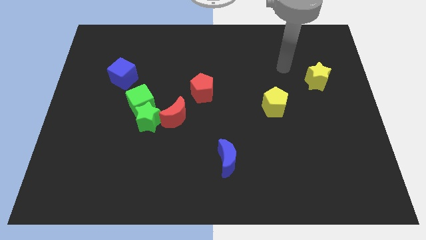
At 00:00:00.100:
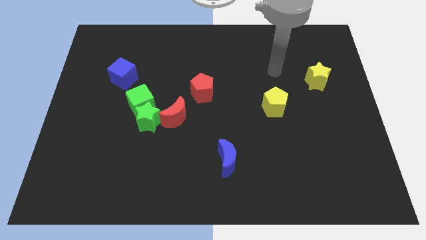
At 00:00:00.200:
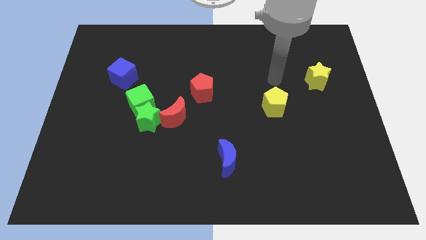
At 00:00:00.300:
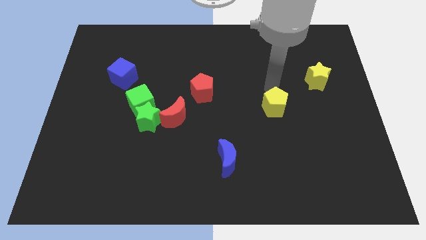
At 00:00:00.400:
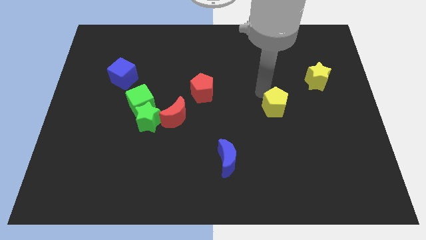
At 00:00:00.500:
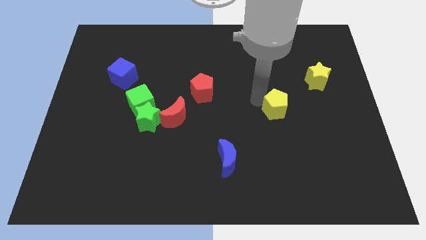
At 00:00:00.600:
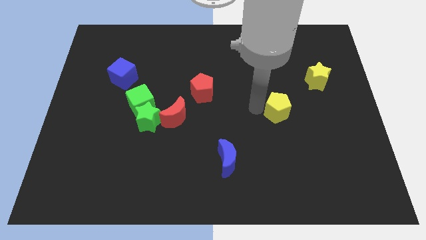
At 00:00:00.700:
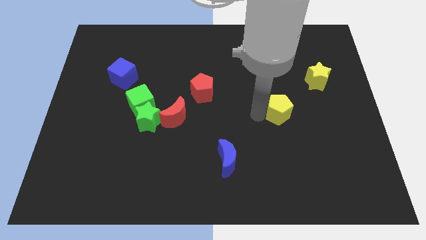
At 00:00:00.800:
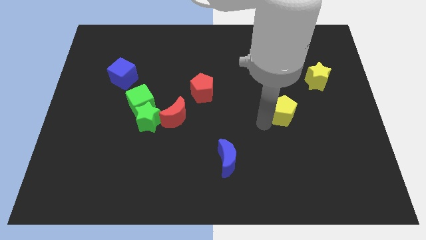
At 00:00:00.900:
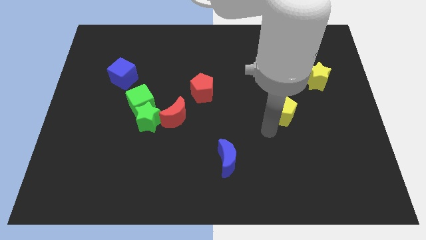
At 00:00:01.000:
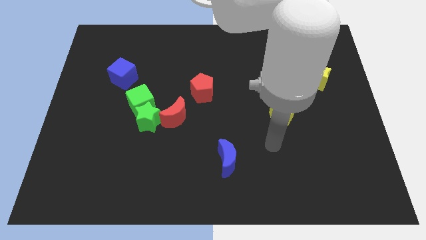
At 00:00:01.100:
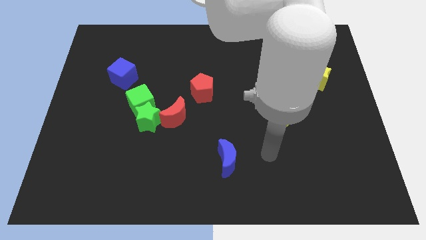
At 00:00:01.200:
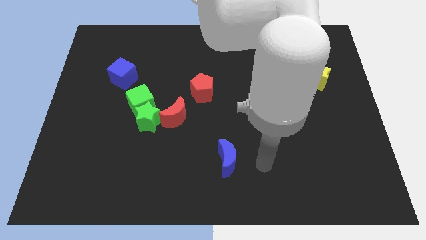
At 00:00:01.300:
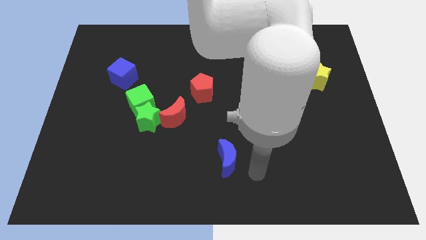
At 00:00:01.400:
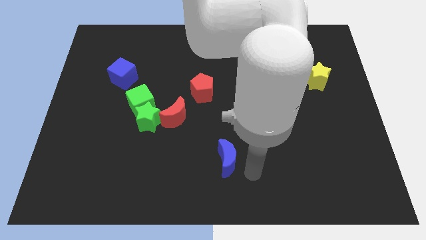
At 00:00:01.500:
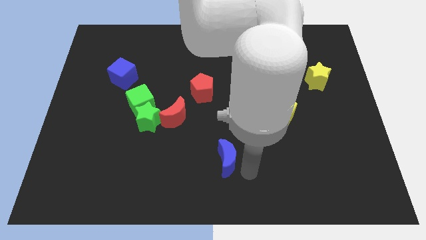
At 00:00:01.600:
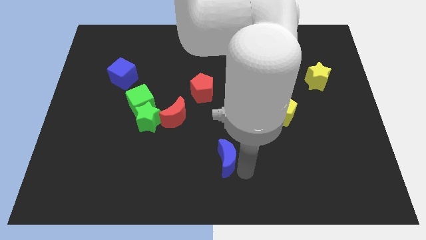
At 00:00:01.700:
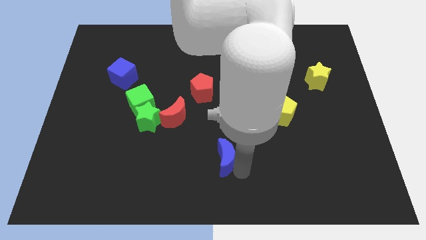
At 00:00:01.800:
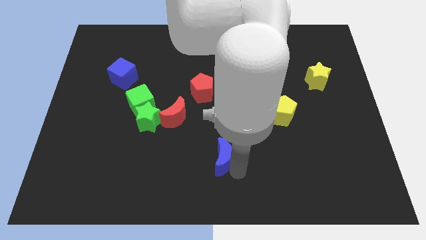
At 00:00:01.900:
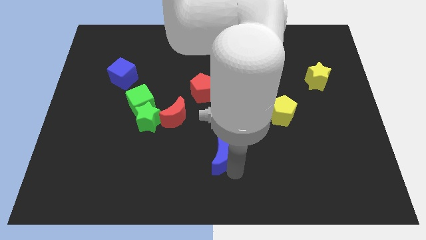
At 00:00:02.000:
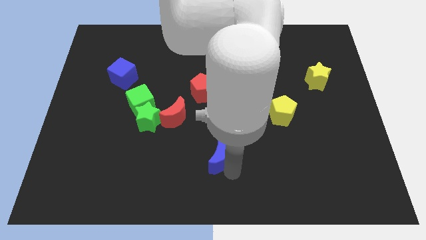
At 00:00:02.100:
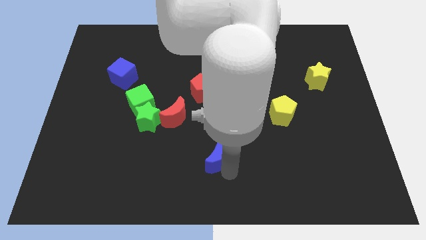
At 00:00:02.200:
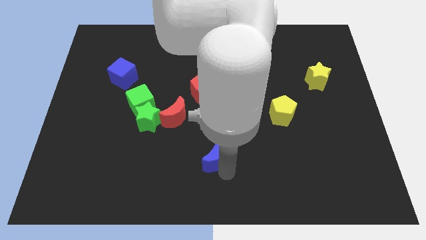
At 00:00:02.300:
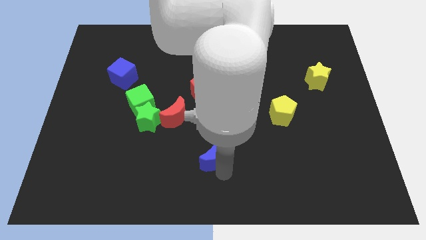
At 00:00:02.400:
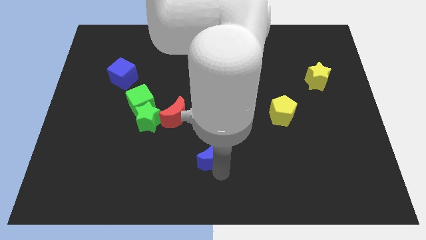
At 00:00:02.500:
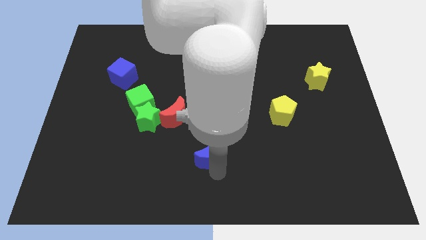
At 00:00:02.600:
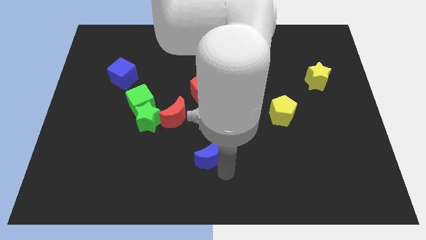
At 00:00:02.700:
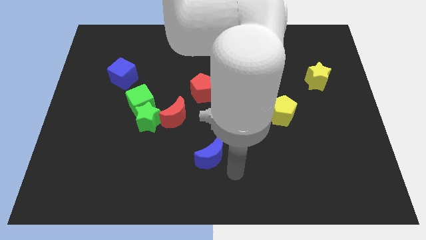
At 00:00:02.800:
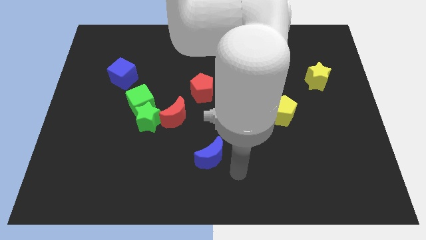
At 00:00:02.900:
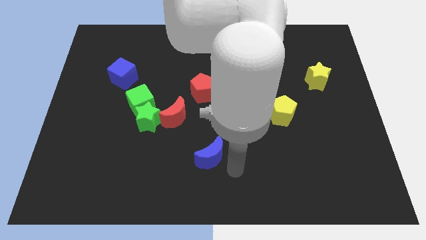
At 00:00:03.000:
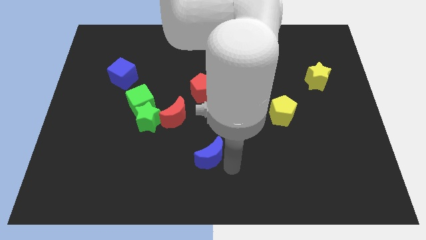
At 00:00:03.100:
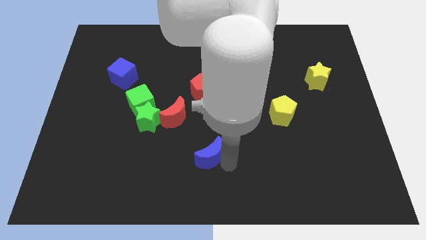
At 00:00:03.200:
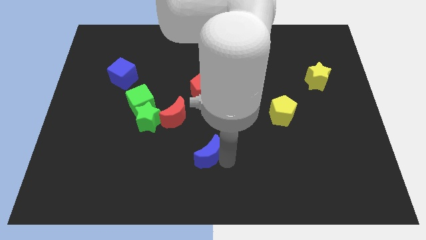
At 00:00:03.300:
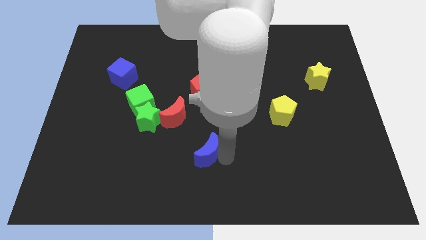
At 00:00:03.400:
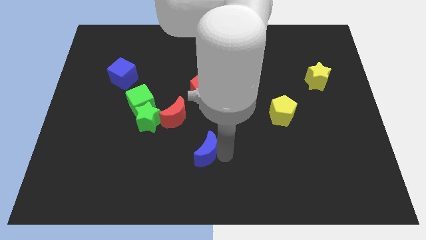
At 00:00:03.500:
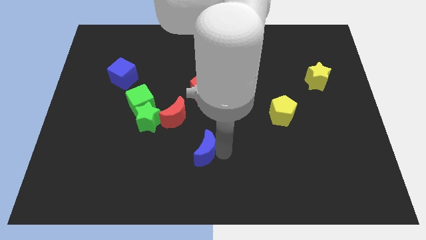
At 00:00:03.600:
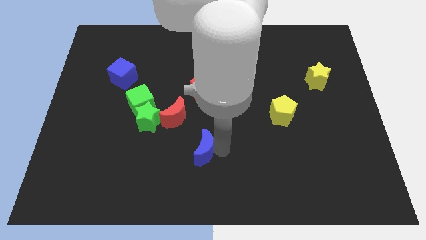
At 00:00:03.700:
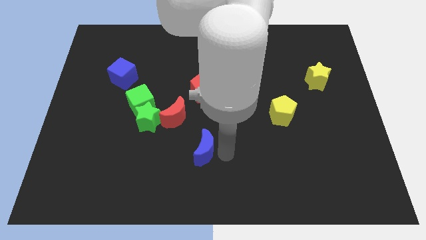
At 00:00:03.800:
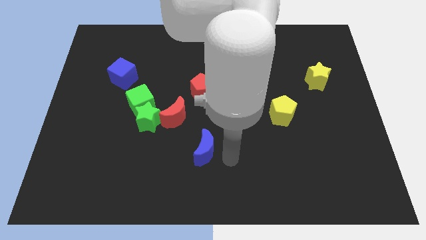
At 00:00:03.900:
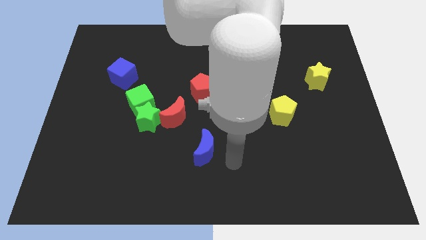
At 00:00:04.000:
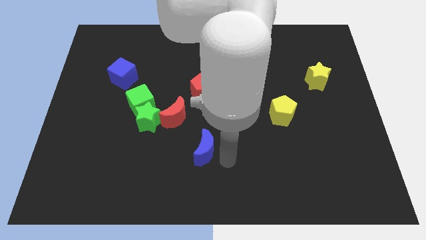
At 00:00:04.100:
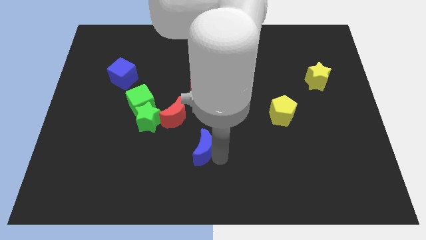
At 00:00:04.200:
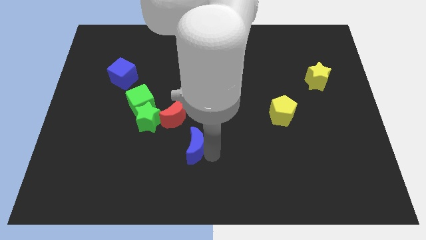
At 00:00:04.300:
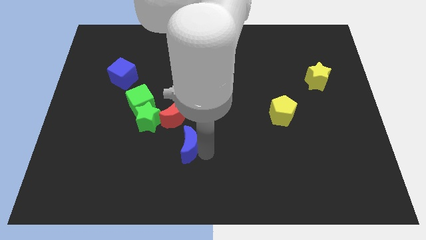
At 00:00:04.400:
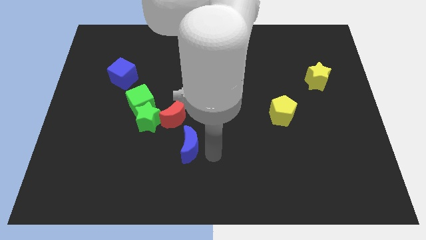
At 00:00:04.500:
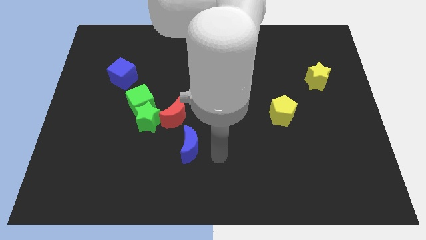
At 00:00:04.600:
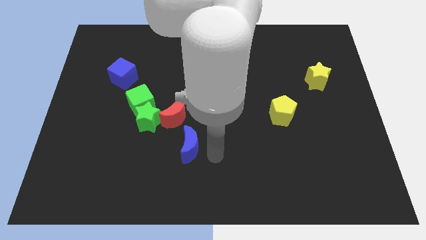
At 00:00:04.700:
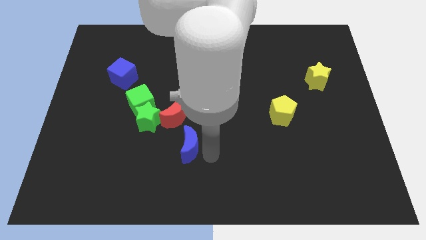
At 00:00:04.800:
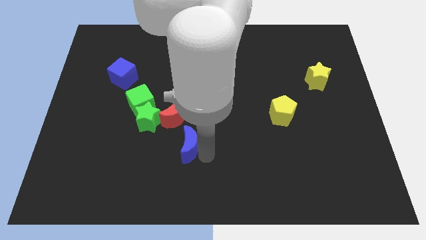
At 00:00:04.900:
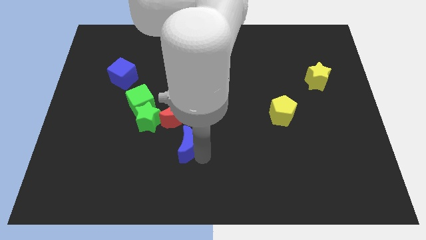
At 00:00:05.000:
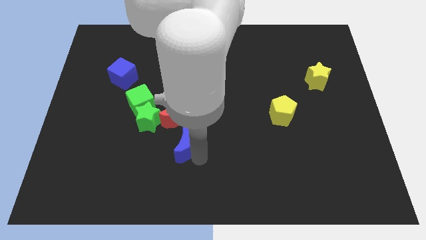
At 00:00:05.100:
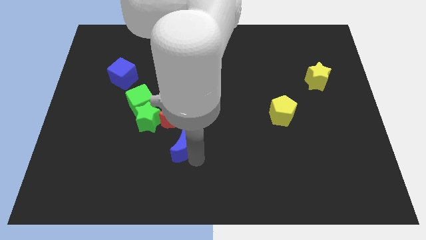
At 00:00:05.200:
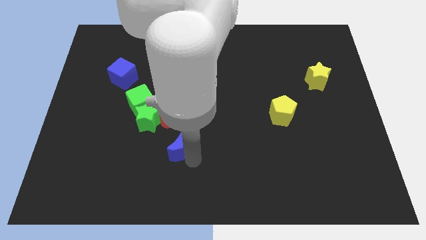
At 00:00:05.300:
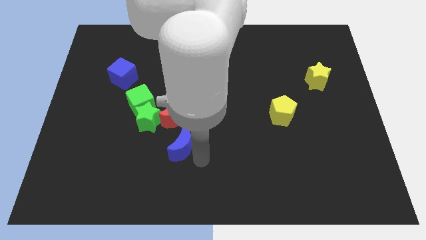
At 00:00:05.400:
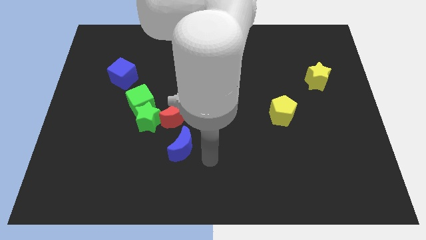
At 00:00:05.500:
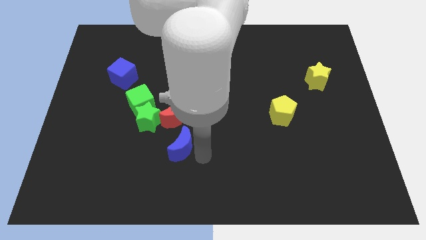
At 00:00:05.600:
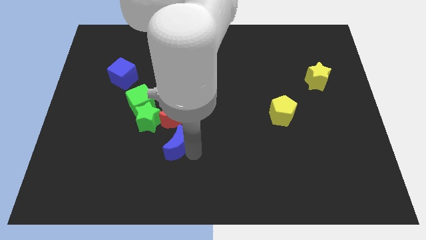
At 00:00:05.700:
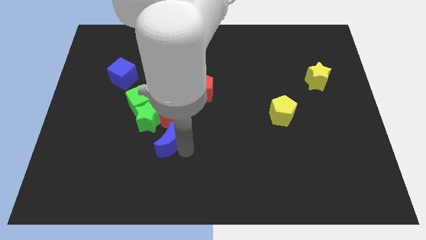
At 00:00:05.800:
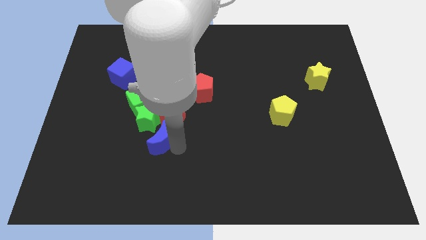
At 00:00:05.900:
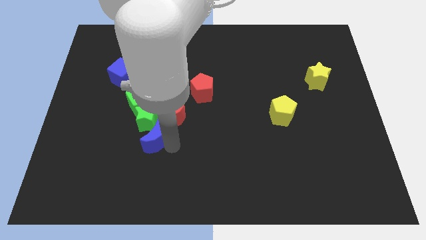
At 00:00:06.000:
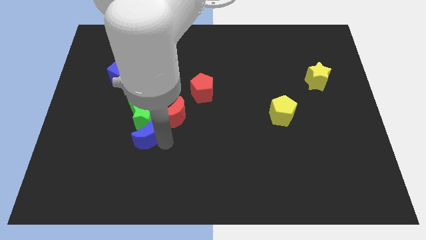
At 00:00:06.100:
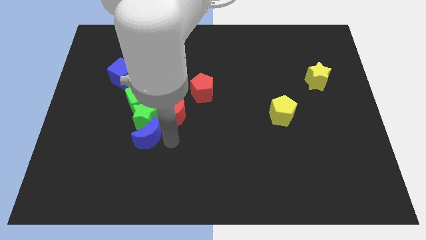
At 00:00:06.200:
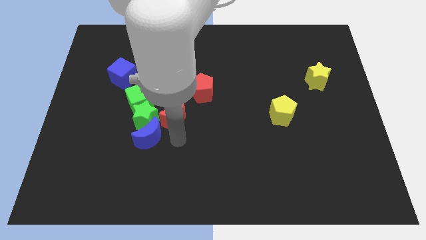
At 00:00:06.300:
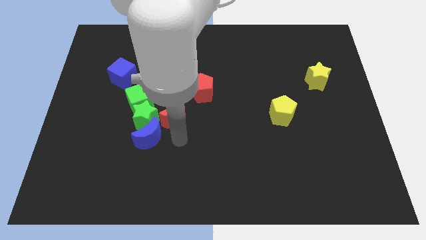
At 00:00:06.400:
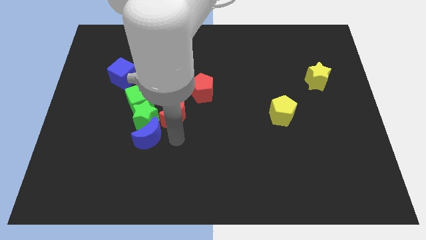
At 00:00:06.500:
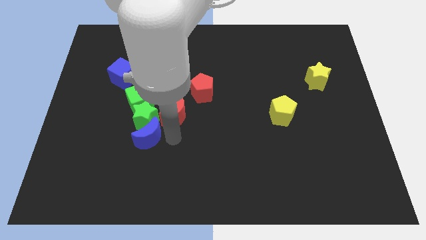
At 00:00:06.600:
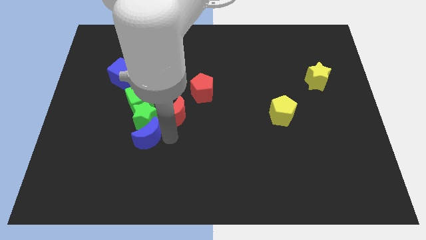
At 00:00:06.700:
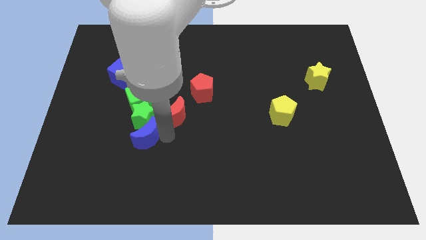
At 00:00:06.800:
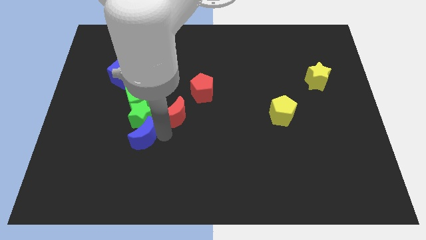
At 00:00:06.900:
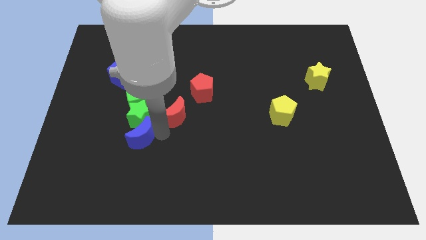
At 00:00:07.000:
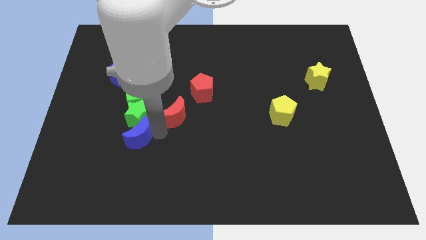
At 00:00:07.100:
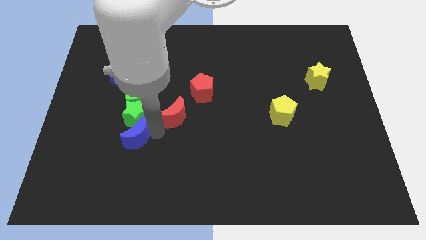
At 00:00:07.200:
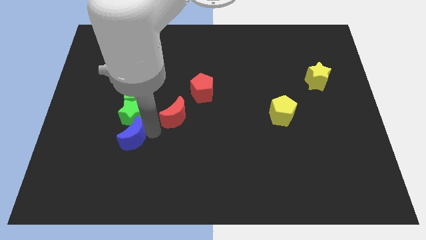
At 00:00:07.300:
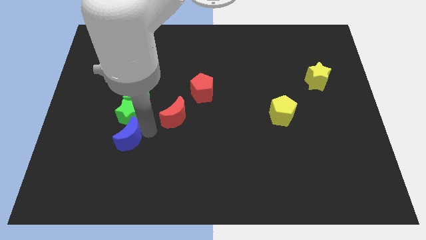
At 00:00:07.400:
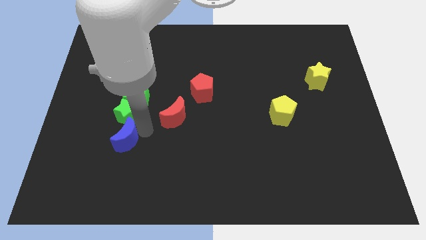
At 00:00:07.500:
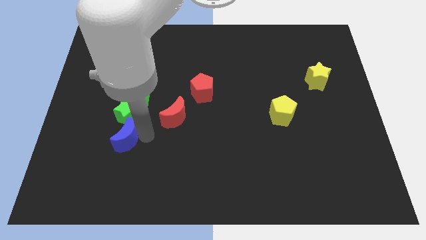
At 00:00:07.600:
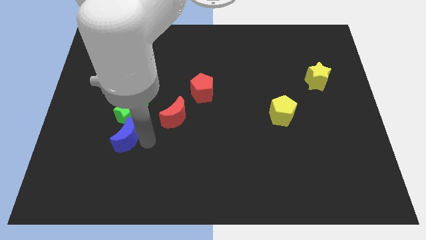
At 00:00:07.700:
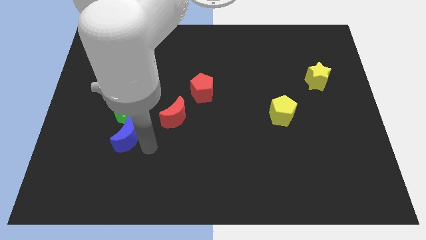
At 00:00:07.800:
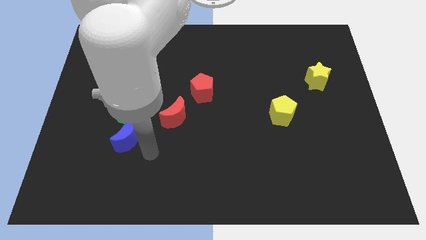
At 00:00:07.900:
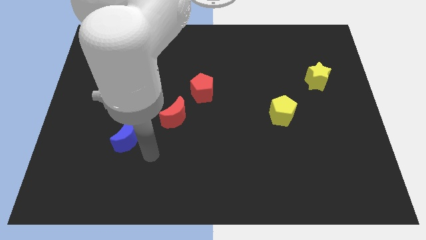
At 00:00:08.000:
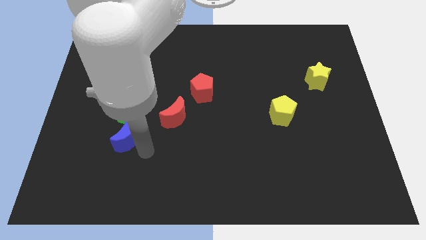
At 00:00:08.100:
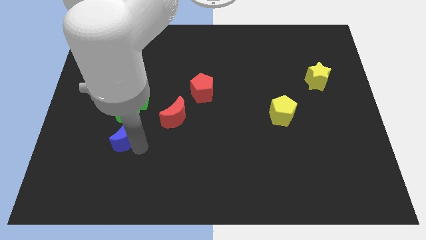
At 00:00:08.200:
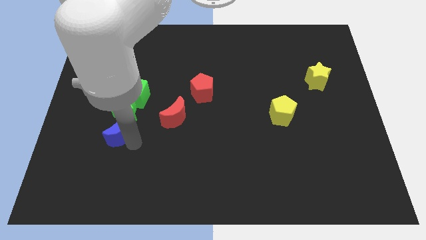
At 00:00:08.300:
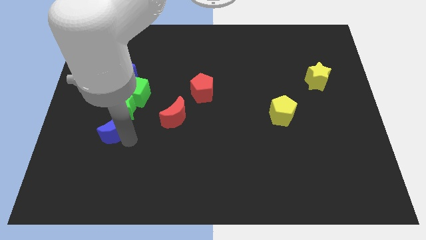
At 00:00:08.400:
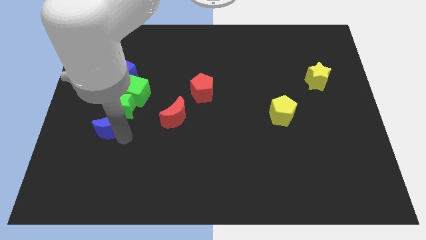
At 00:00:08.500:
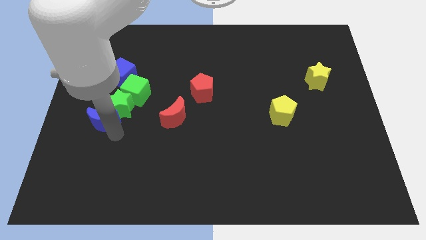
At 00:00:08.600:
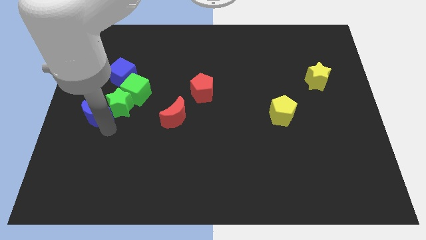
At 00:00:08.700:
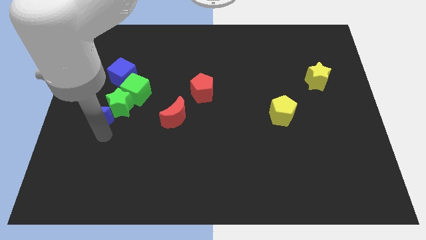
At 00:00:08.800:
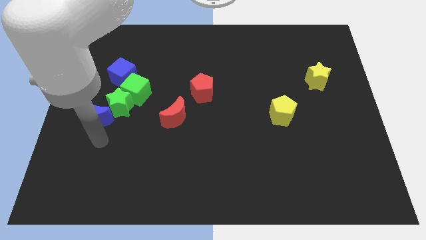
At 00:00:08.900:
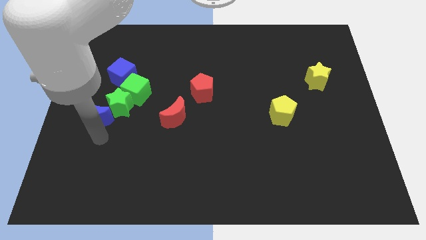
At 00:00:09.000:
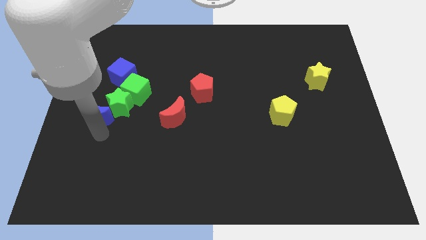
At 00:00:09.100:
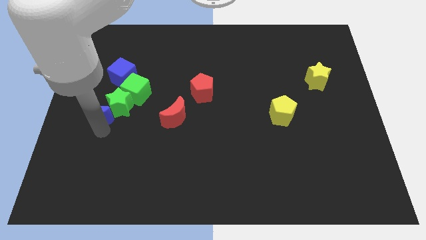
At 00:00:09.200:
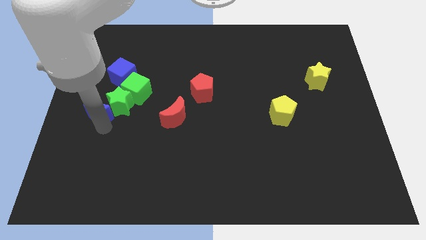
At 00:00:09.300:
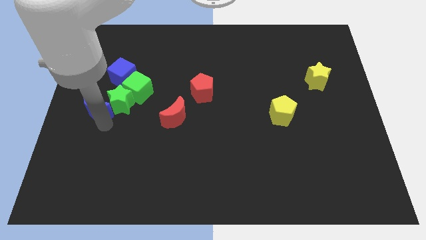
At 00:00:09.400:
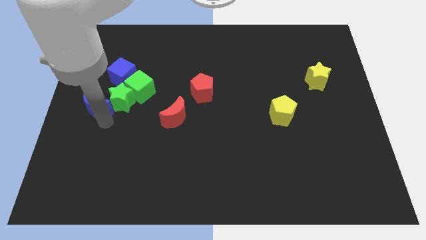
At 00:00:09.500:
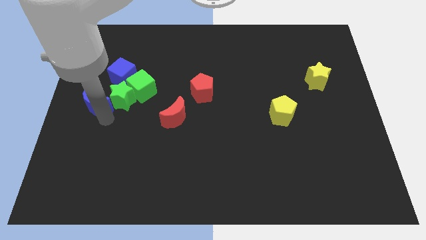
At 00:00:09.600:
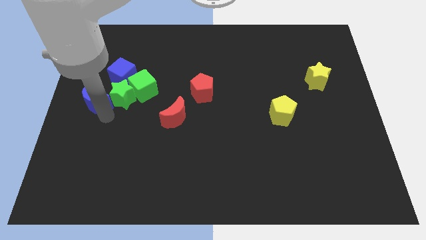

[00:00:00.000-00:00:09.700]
push the blue moon left of the green cube
